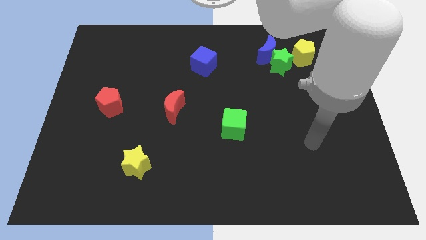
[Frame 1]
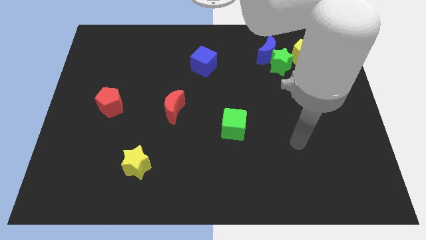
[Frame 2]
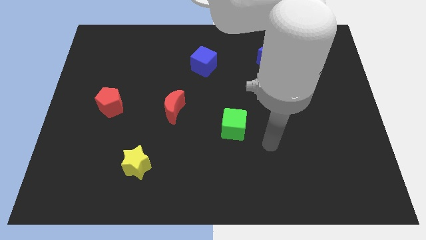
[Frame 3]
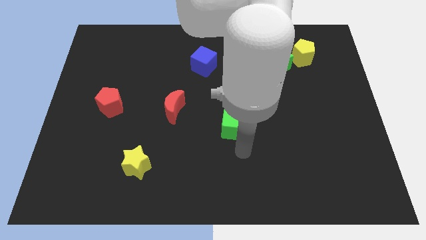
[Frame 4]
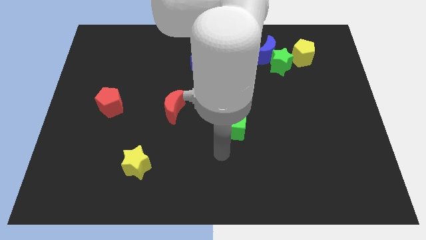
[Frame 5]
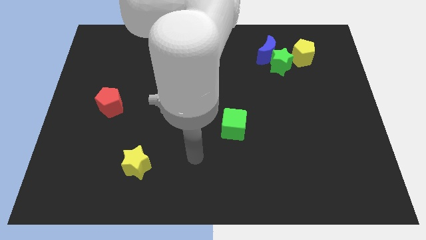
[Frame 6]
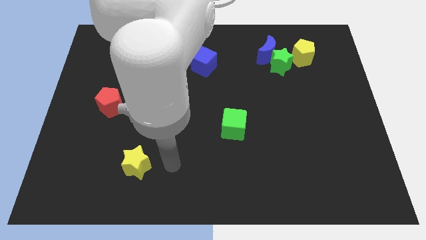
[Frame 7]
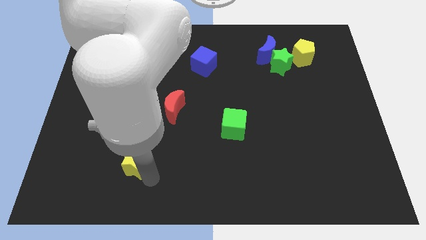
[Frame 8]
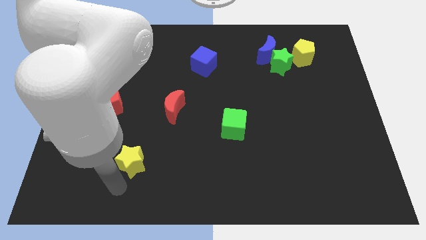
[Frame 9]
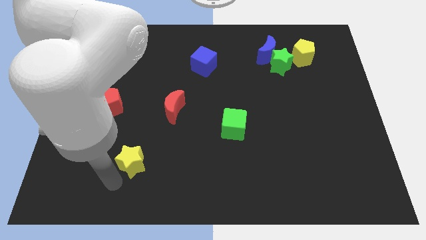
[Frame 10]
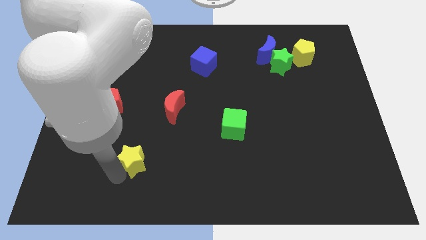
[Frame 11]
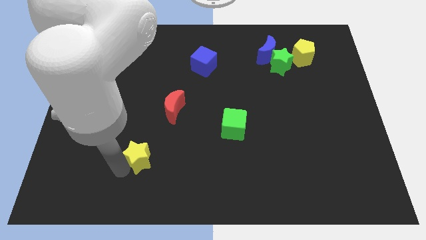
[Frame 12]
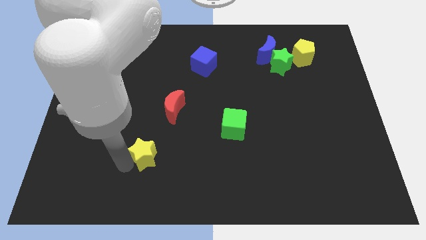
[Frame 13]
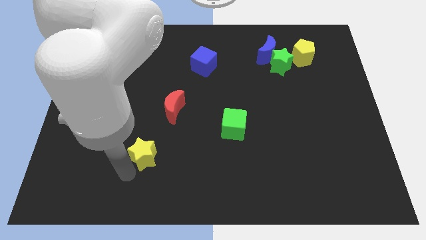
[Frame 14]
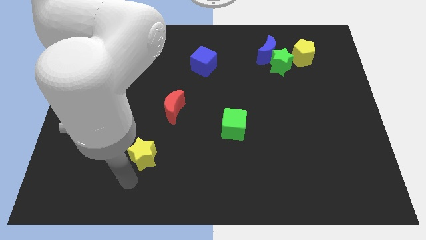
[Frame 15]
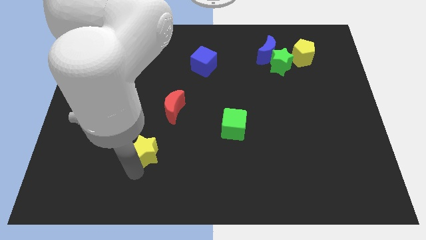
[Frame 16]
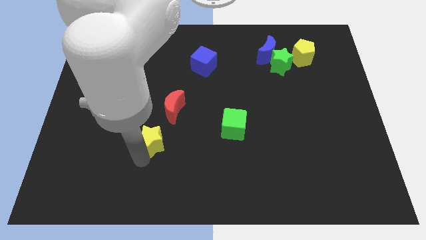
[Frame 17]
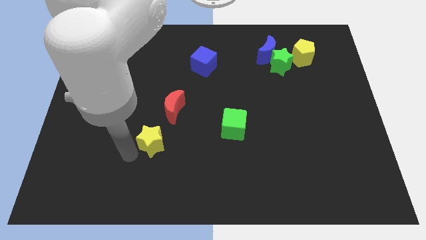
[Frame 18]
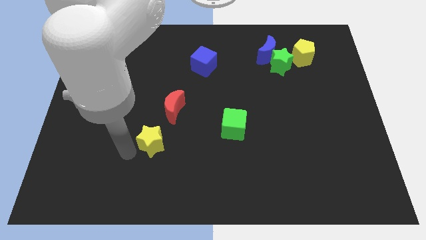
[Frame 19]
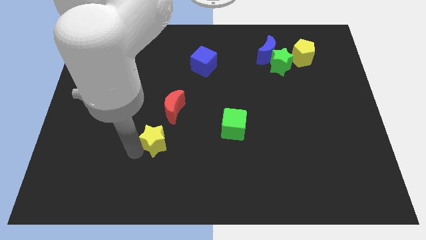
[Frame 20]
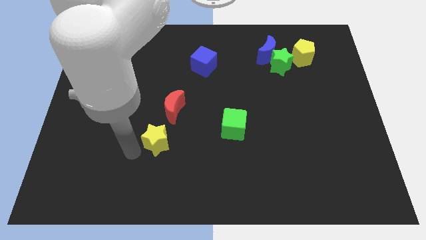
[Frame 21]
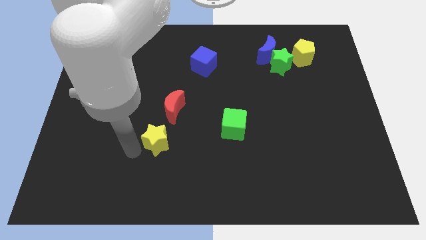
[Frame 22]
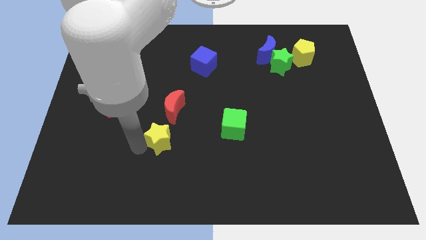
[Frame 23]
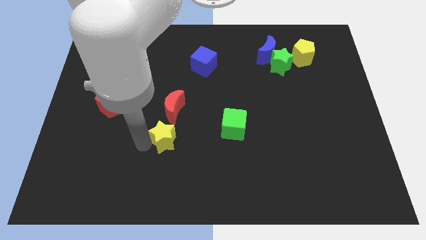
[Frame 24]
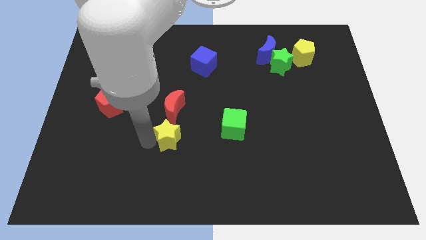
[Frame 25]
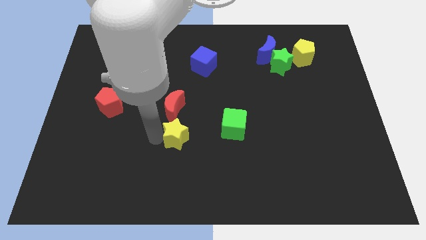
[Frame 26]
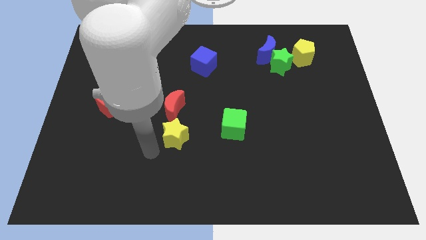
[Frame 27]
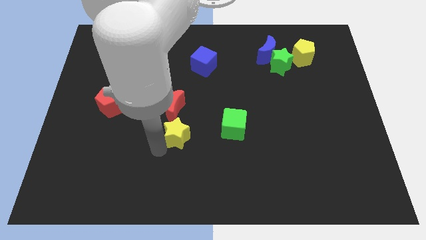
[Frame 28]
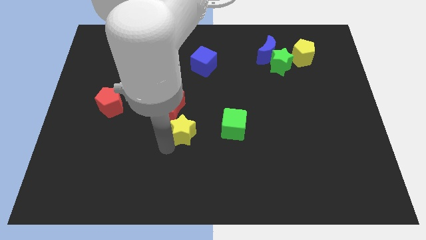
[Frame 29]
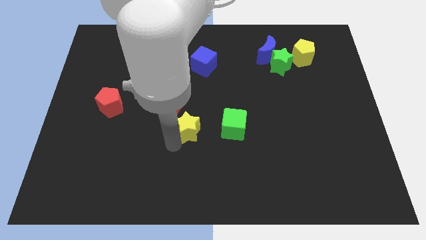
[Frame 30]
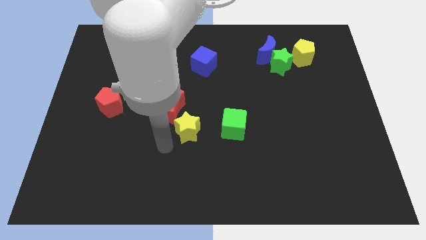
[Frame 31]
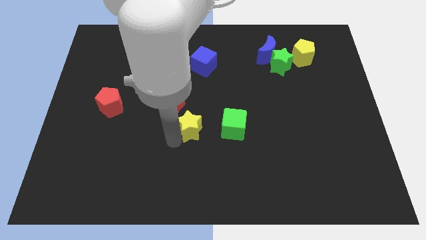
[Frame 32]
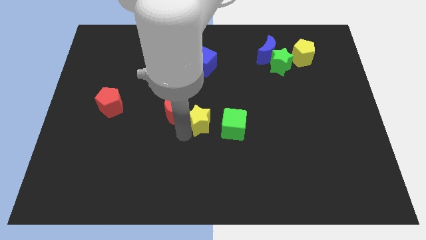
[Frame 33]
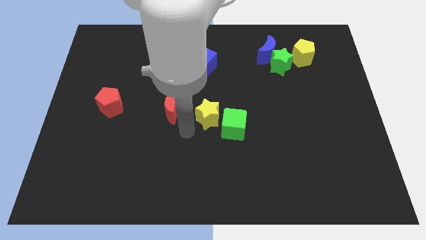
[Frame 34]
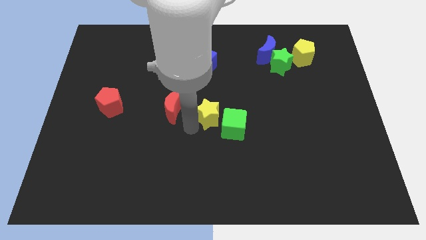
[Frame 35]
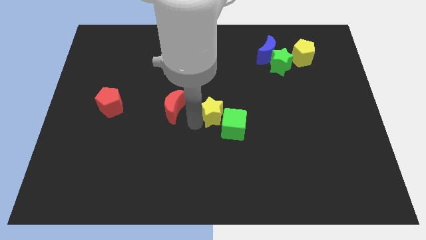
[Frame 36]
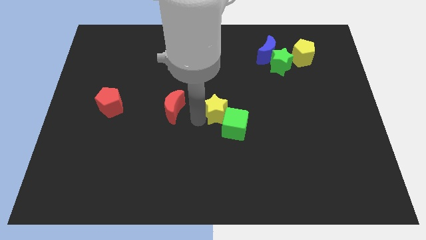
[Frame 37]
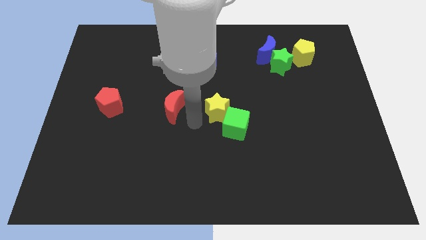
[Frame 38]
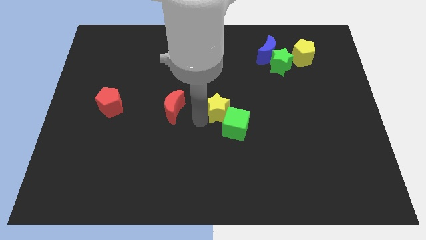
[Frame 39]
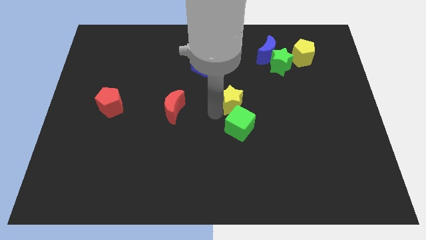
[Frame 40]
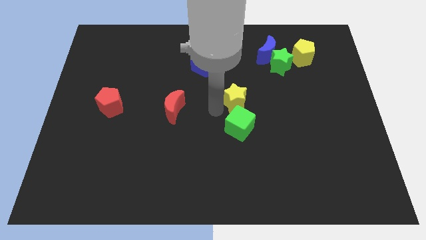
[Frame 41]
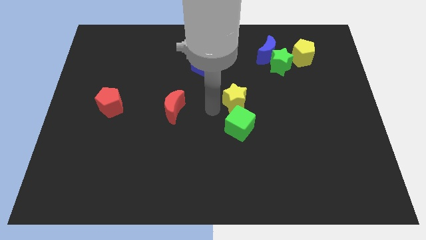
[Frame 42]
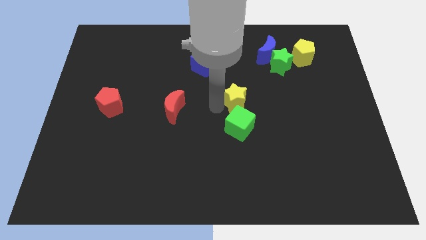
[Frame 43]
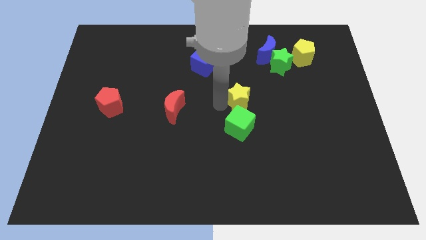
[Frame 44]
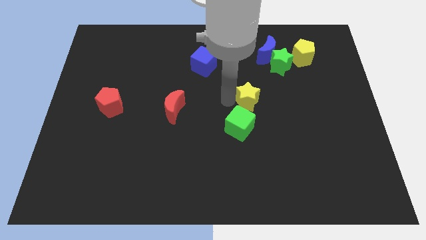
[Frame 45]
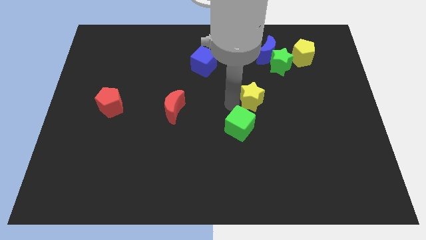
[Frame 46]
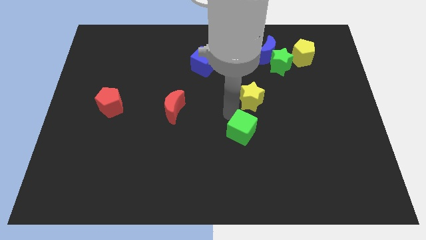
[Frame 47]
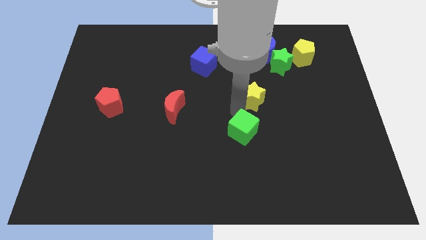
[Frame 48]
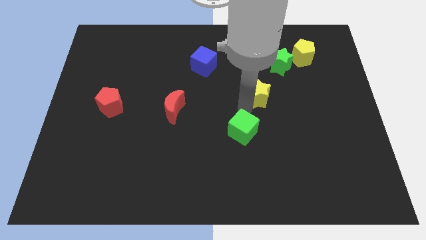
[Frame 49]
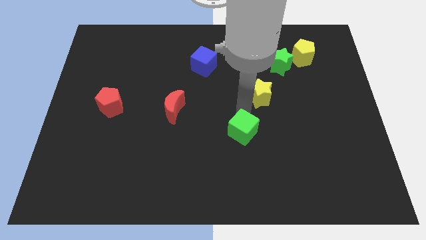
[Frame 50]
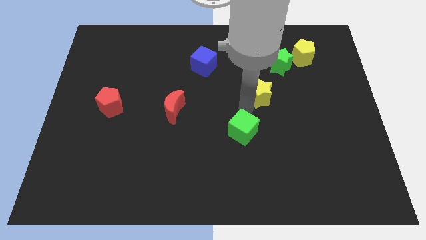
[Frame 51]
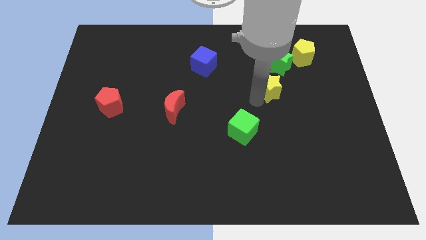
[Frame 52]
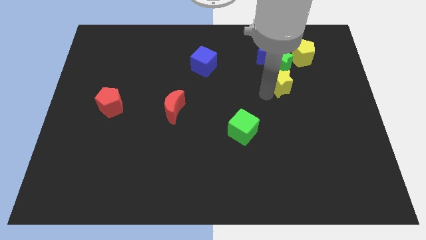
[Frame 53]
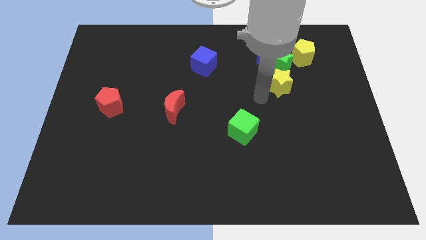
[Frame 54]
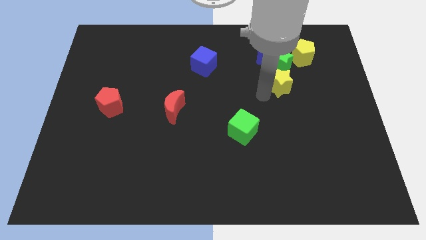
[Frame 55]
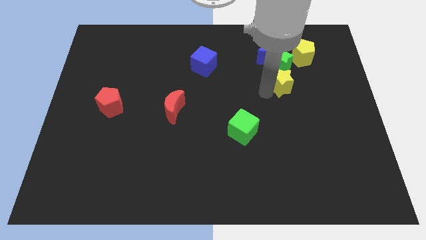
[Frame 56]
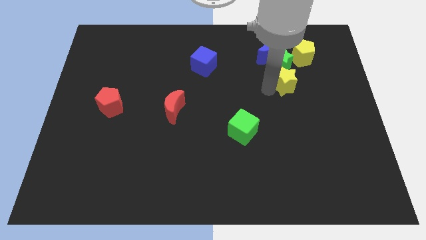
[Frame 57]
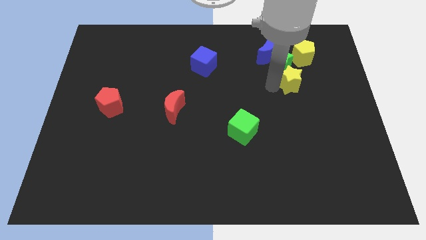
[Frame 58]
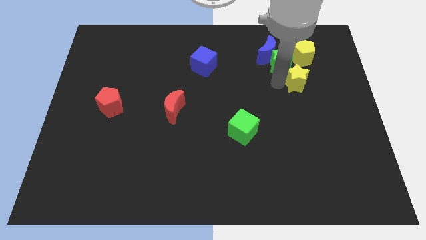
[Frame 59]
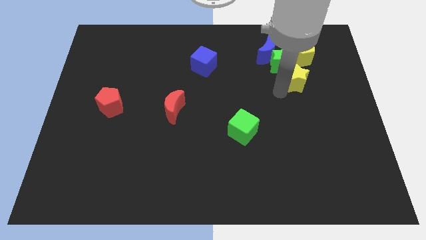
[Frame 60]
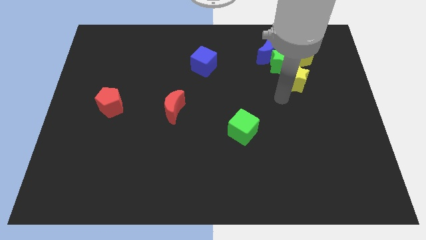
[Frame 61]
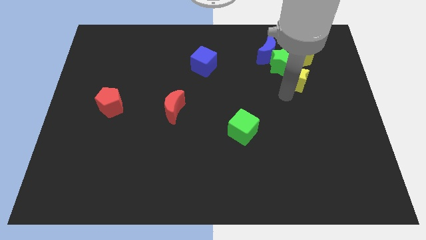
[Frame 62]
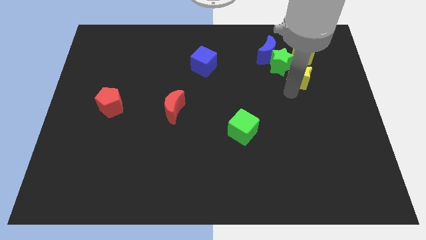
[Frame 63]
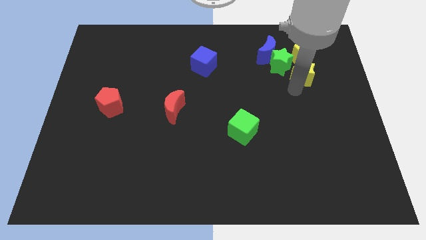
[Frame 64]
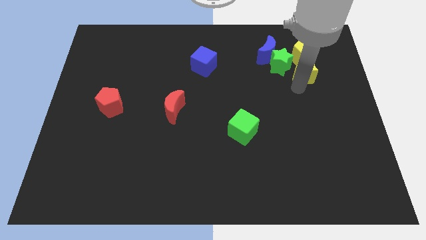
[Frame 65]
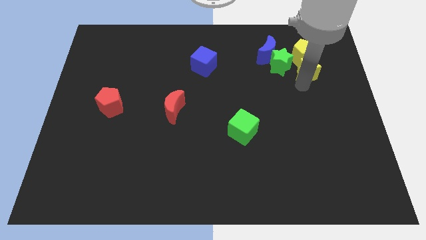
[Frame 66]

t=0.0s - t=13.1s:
move the yellow star towards the yellow pentagon

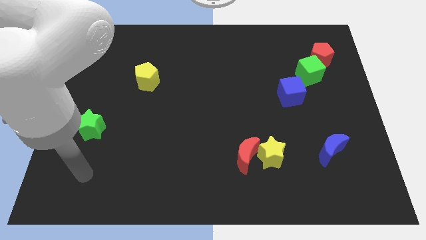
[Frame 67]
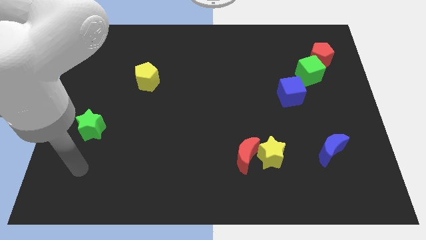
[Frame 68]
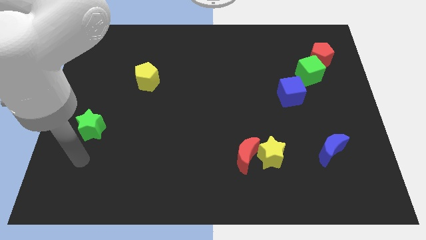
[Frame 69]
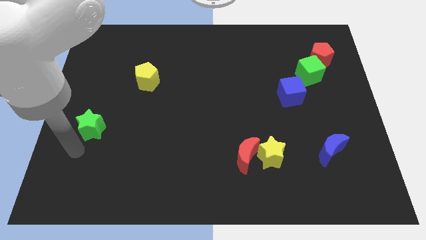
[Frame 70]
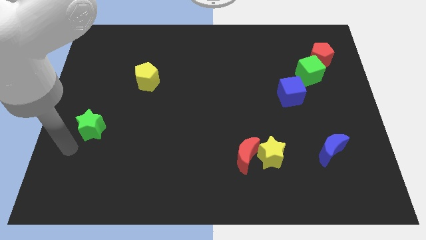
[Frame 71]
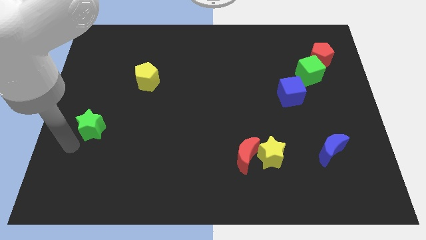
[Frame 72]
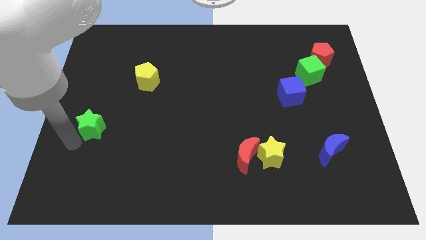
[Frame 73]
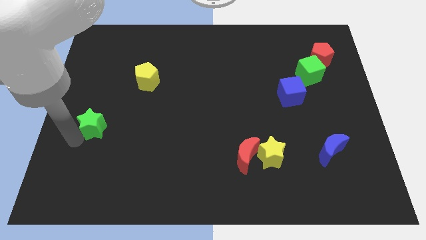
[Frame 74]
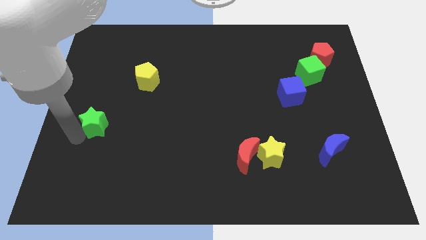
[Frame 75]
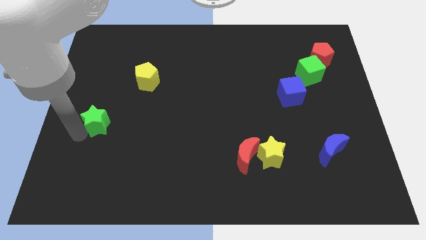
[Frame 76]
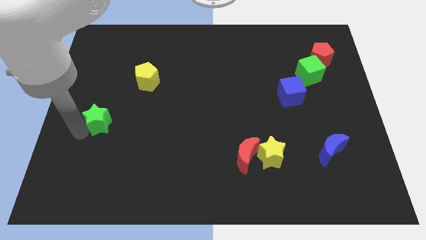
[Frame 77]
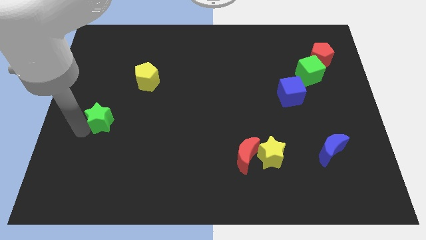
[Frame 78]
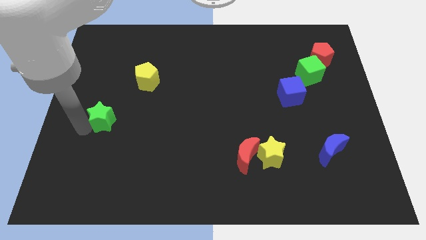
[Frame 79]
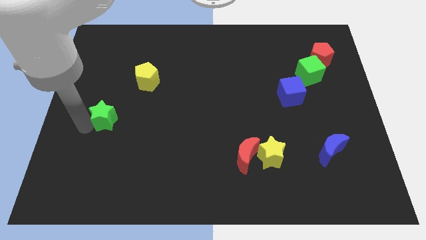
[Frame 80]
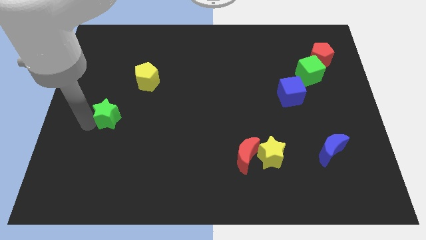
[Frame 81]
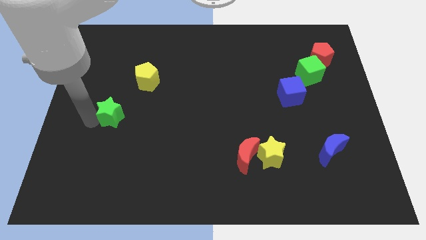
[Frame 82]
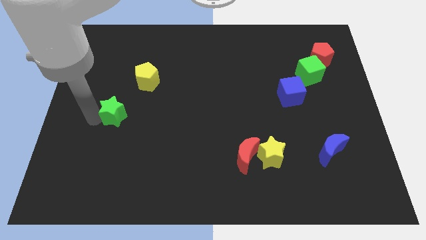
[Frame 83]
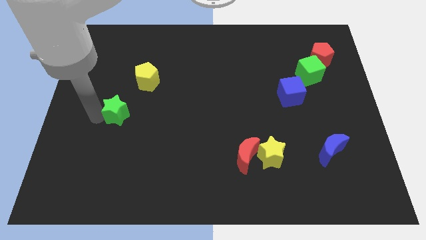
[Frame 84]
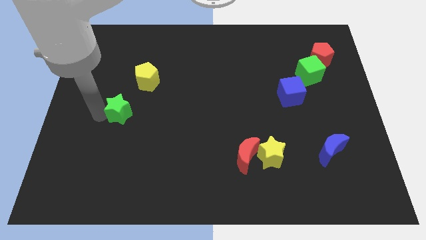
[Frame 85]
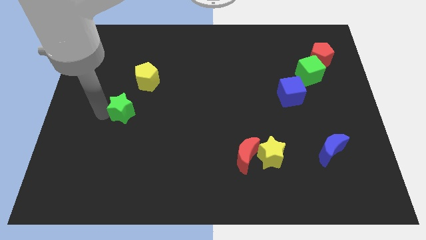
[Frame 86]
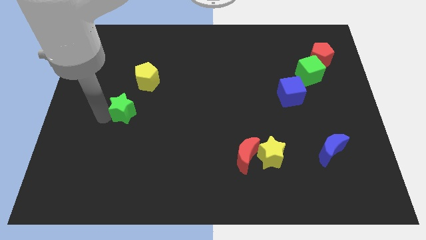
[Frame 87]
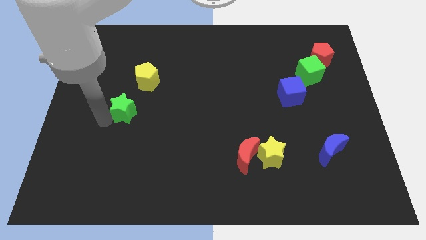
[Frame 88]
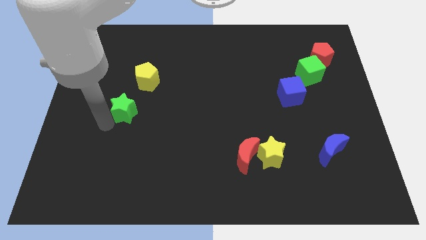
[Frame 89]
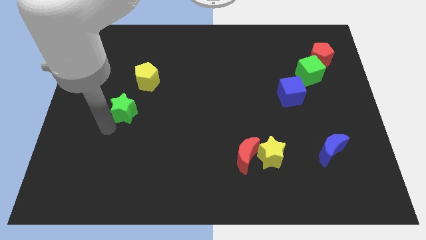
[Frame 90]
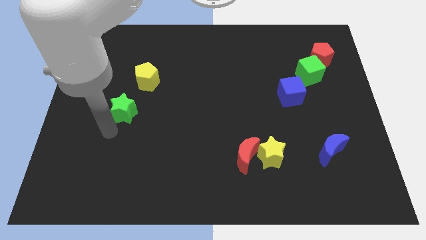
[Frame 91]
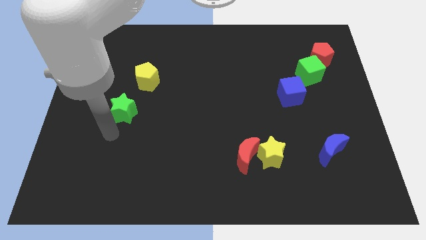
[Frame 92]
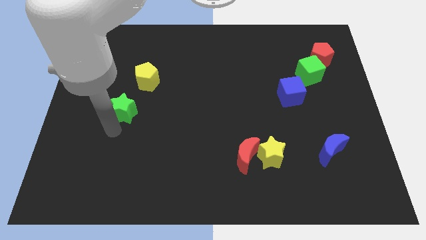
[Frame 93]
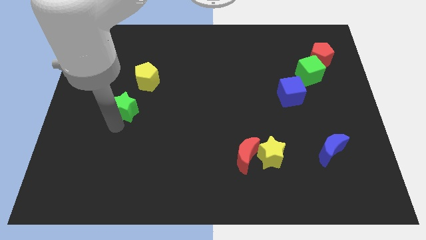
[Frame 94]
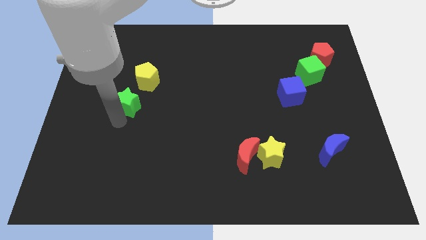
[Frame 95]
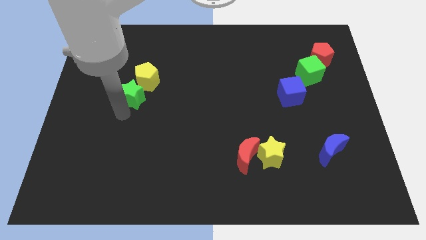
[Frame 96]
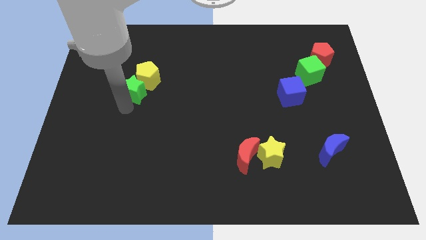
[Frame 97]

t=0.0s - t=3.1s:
slide the green star close to the yellow pentagon
